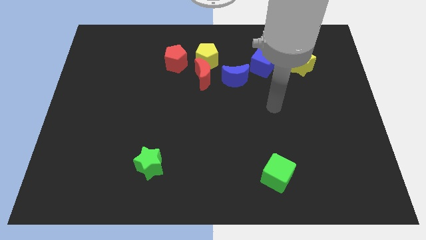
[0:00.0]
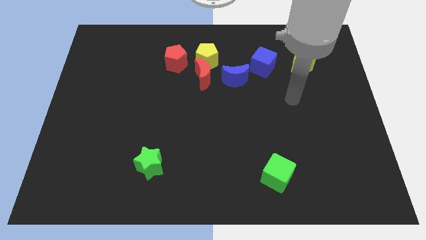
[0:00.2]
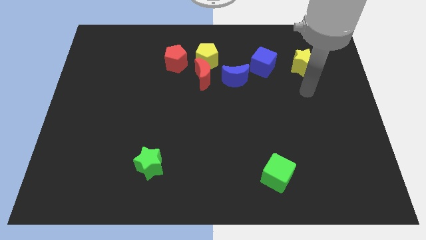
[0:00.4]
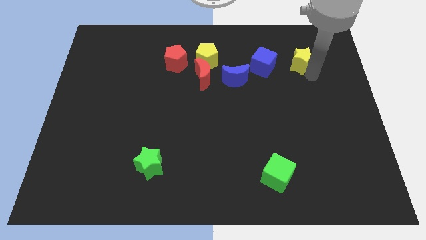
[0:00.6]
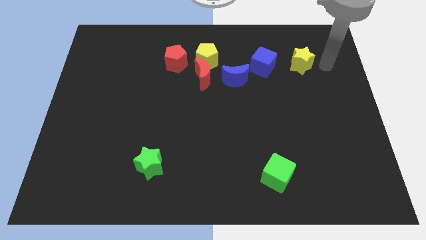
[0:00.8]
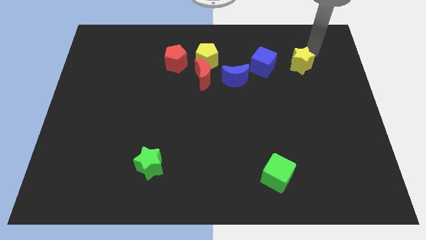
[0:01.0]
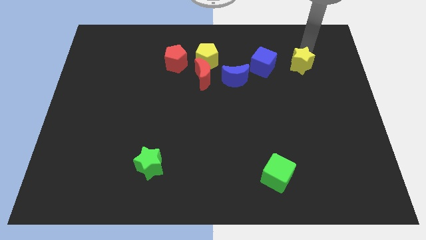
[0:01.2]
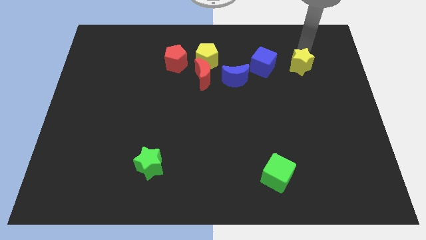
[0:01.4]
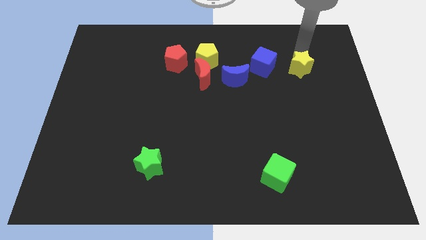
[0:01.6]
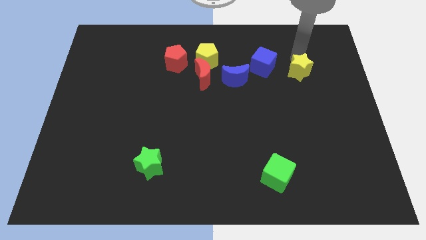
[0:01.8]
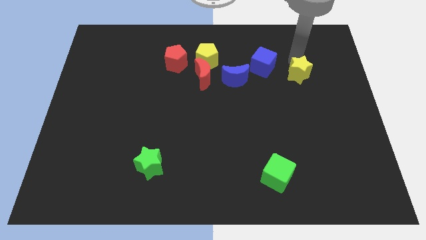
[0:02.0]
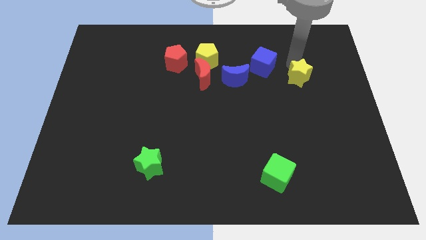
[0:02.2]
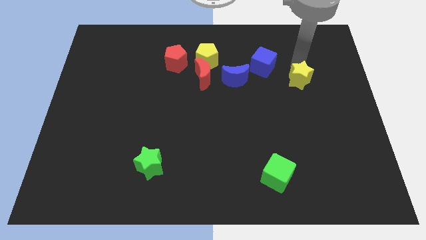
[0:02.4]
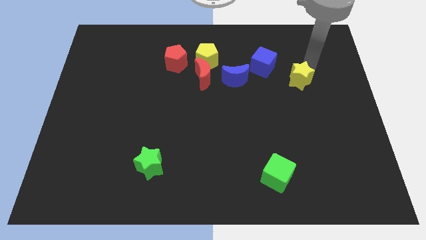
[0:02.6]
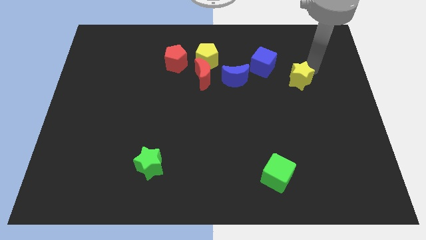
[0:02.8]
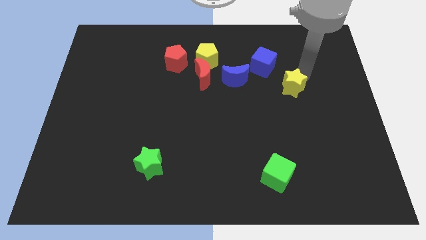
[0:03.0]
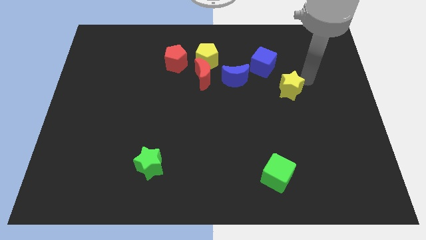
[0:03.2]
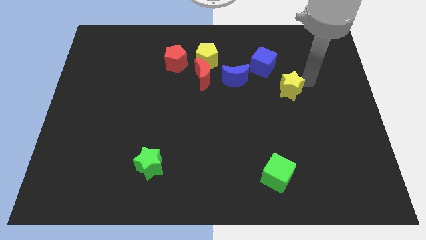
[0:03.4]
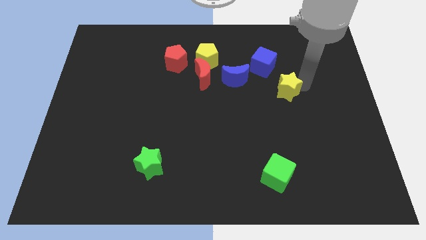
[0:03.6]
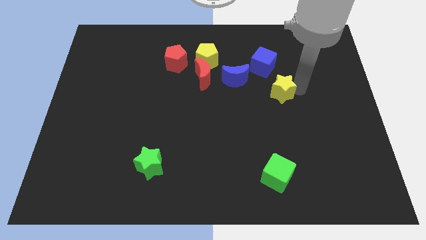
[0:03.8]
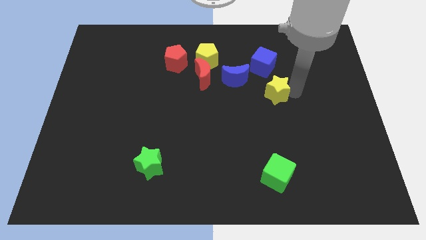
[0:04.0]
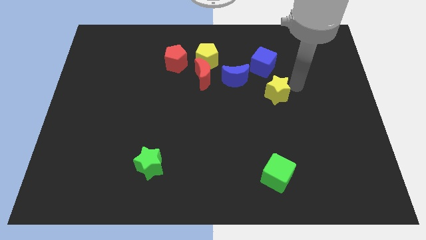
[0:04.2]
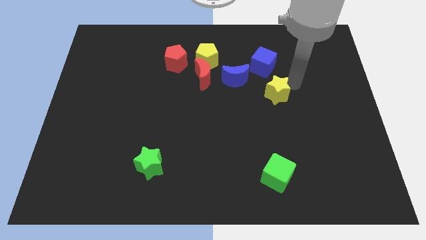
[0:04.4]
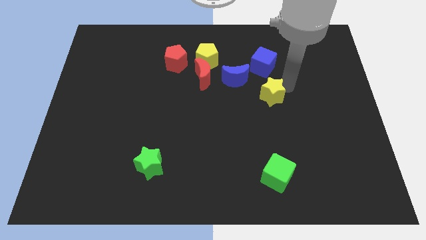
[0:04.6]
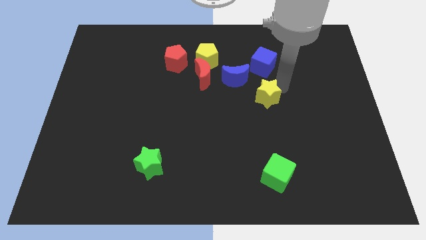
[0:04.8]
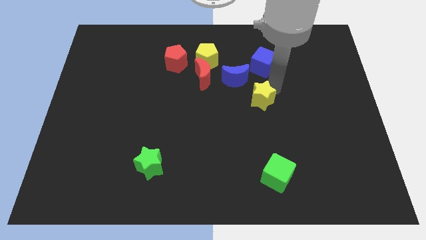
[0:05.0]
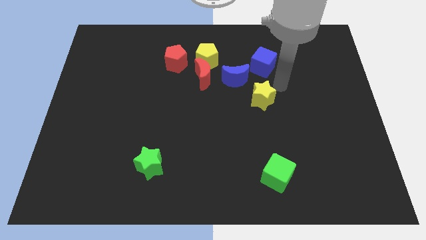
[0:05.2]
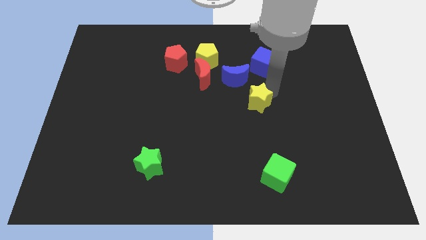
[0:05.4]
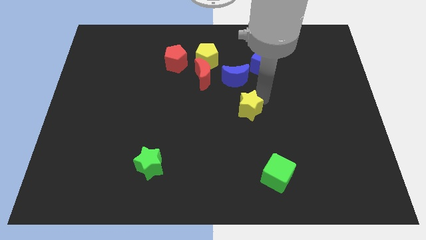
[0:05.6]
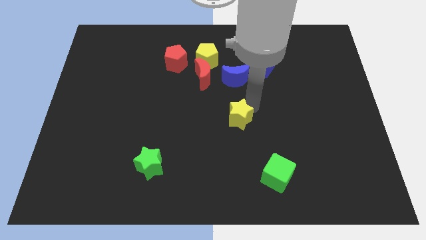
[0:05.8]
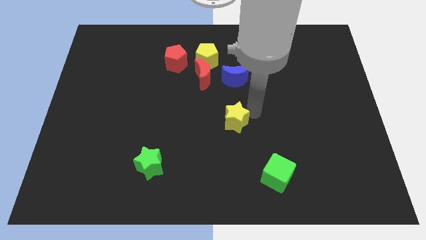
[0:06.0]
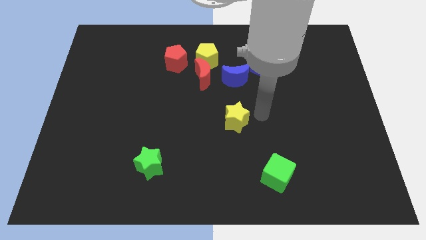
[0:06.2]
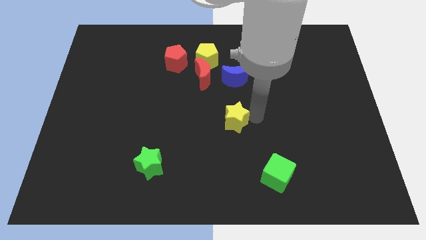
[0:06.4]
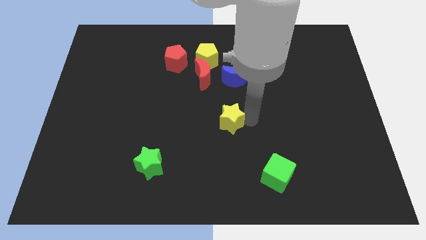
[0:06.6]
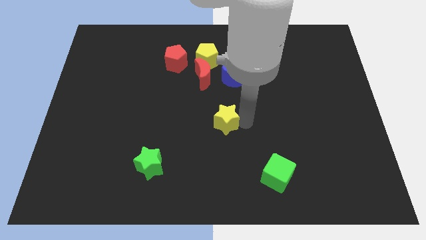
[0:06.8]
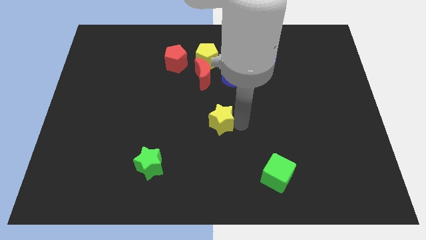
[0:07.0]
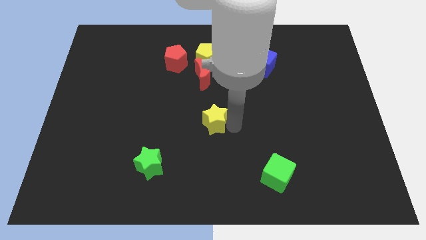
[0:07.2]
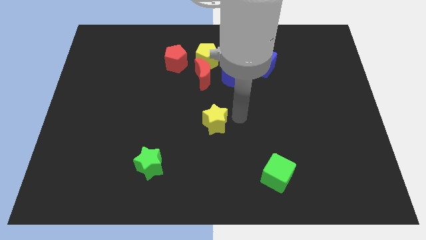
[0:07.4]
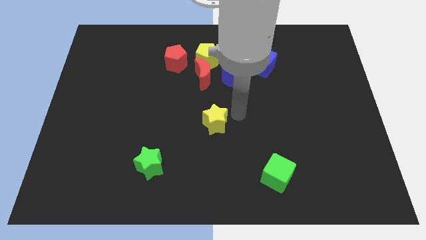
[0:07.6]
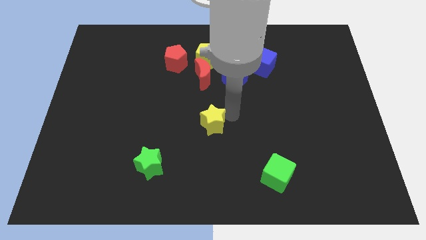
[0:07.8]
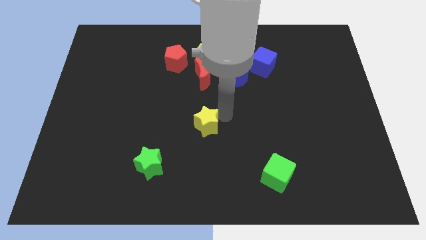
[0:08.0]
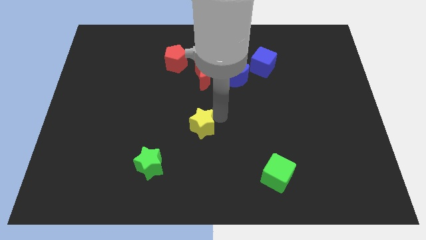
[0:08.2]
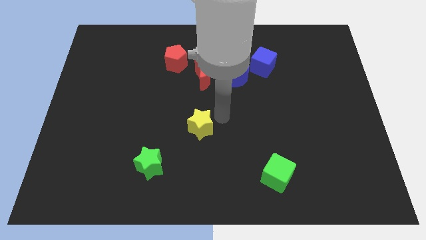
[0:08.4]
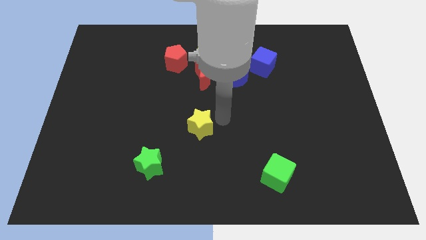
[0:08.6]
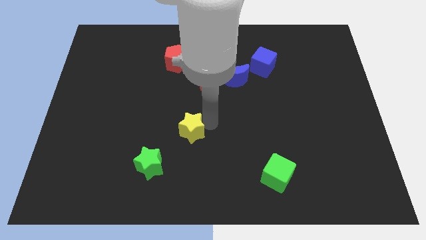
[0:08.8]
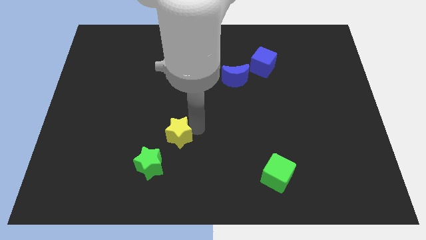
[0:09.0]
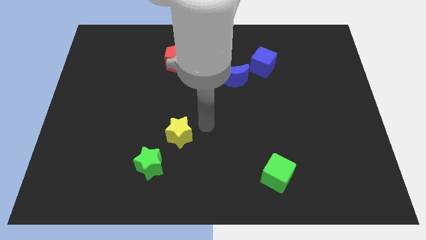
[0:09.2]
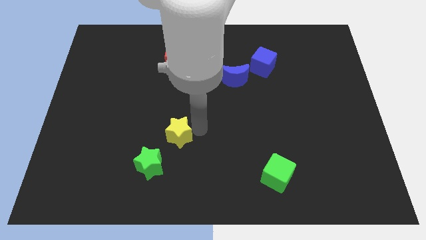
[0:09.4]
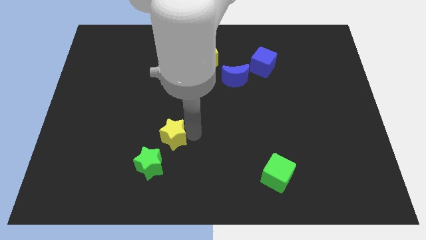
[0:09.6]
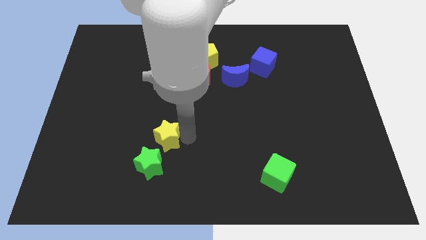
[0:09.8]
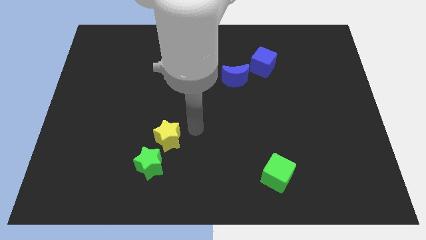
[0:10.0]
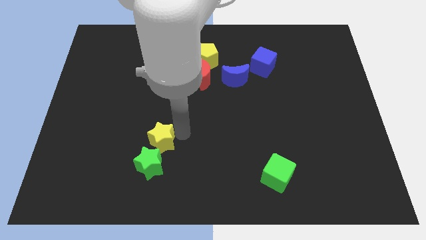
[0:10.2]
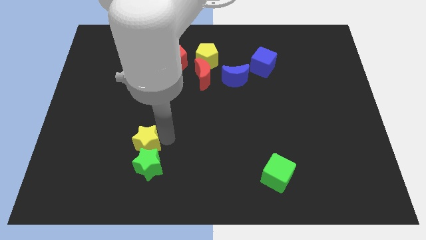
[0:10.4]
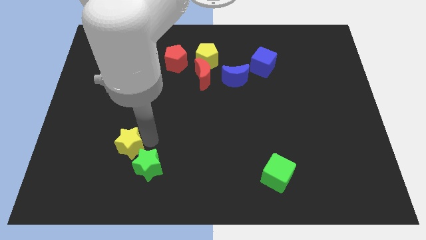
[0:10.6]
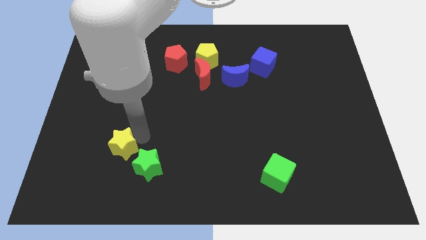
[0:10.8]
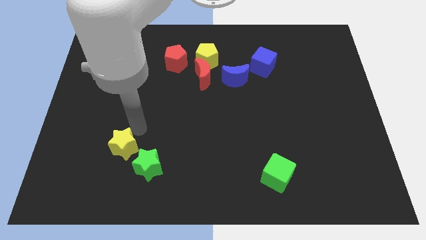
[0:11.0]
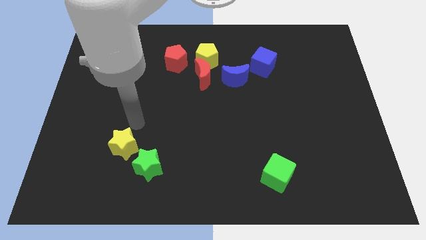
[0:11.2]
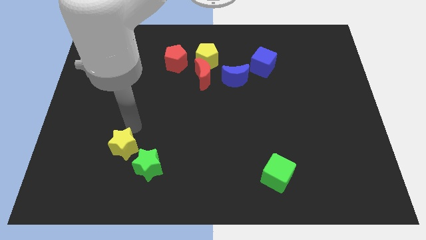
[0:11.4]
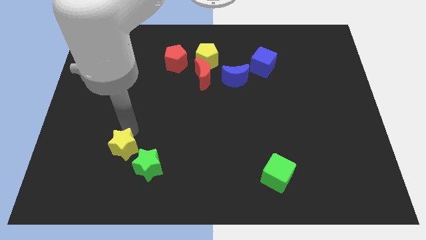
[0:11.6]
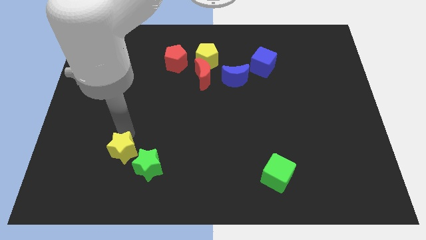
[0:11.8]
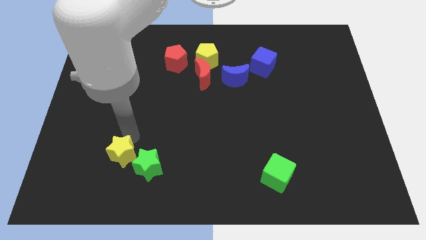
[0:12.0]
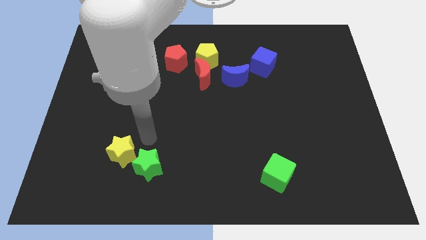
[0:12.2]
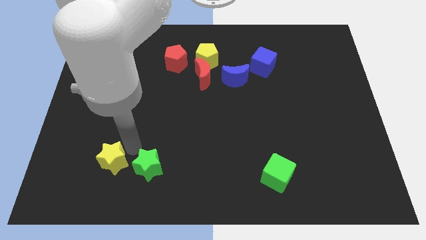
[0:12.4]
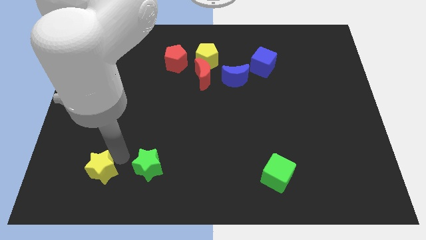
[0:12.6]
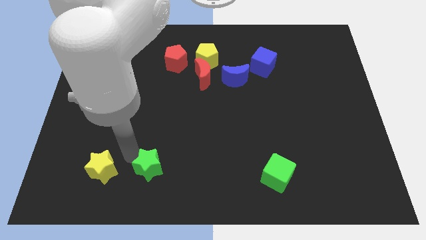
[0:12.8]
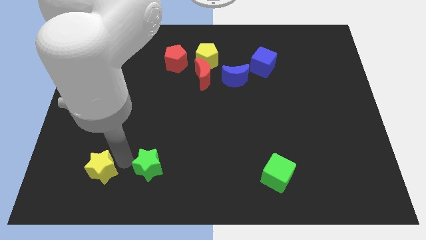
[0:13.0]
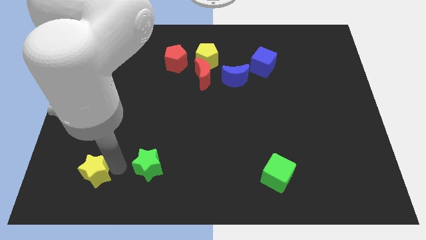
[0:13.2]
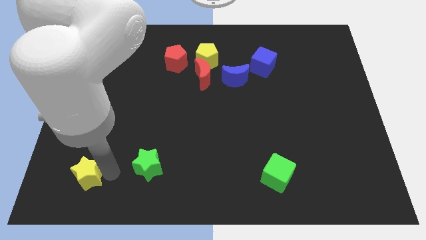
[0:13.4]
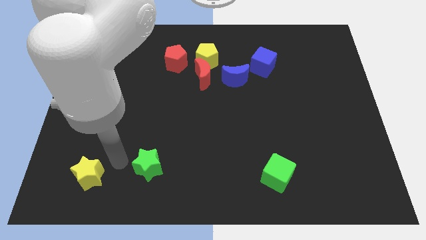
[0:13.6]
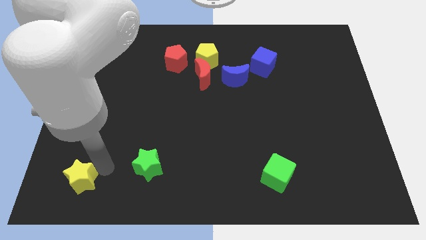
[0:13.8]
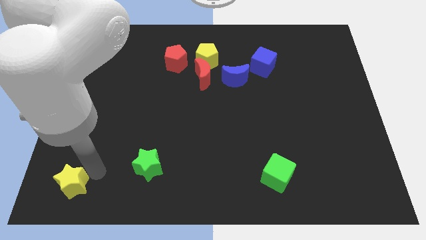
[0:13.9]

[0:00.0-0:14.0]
move the yellow star to the bottom left

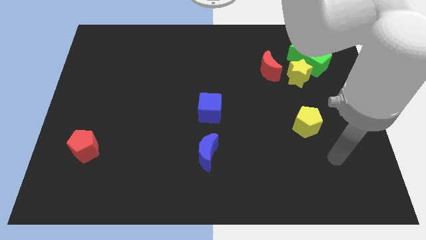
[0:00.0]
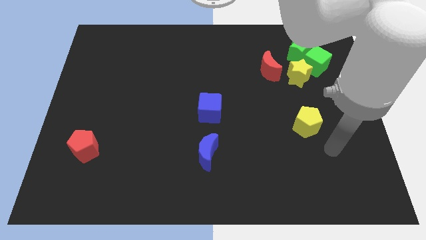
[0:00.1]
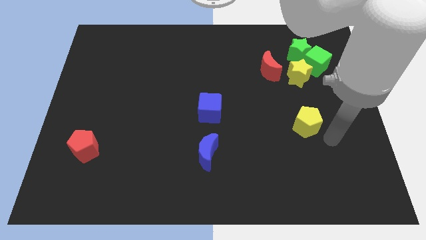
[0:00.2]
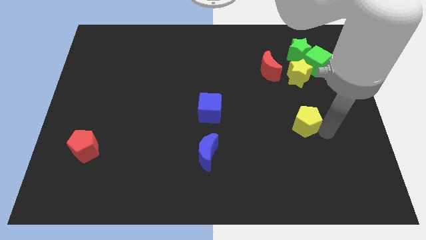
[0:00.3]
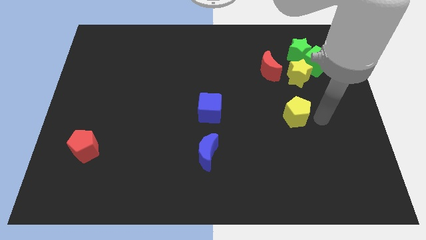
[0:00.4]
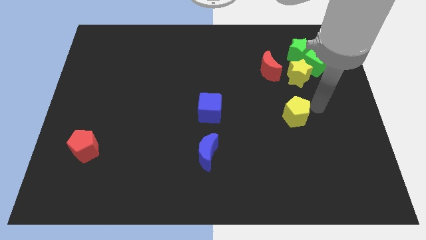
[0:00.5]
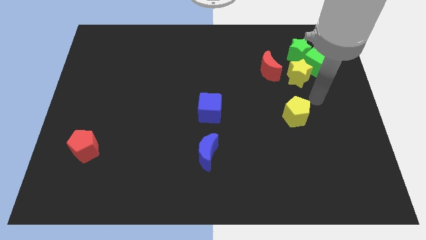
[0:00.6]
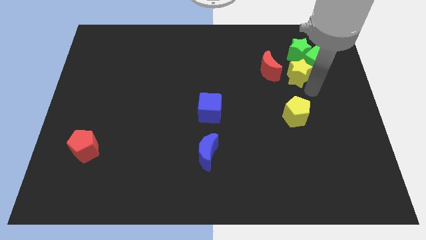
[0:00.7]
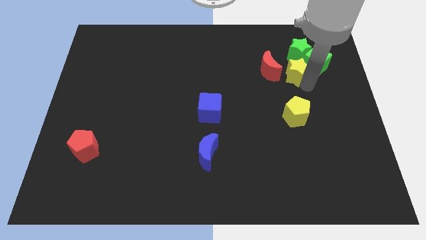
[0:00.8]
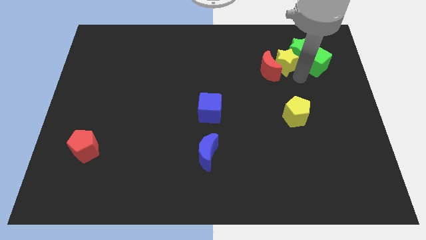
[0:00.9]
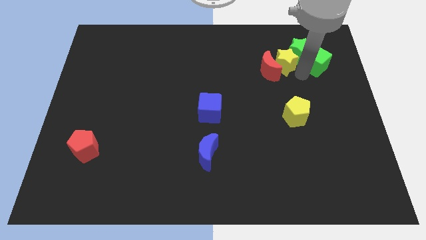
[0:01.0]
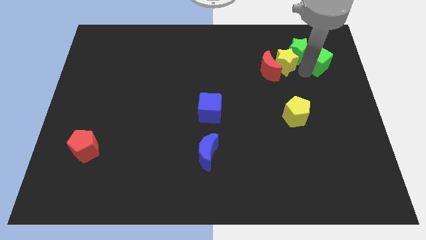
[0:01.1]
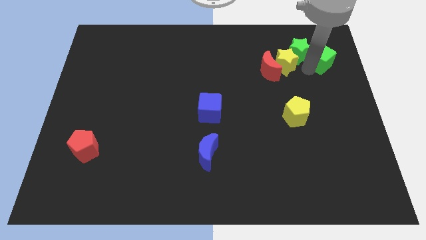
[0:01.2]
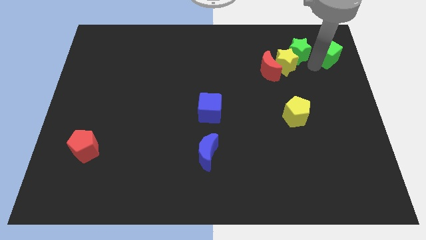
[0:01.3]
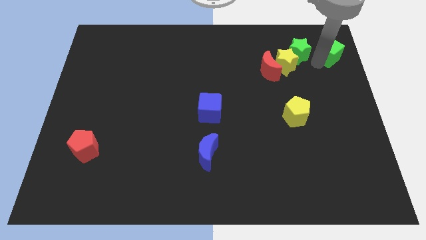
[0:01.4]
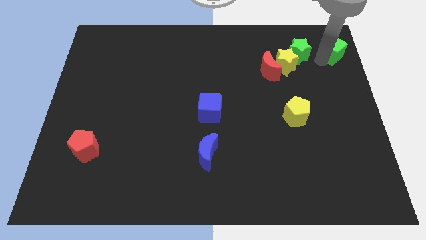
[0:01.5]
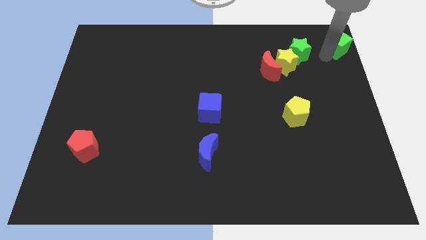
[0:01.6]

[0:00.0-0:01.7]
move the green cube to the upper right corner
